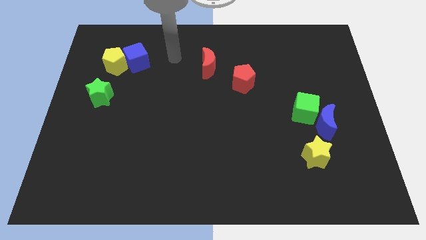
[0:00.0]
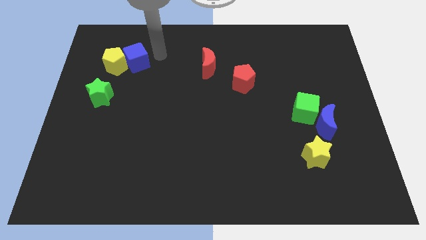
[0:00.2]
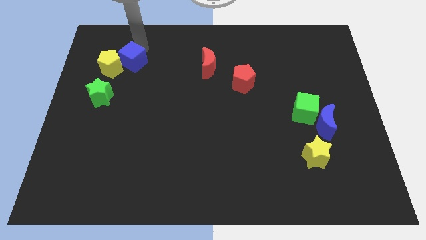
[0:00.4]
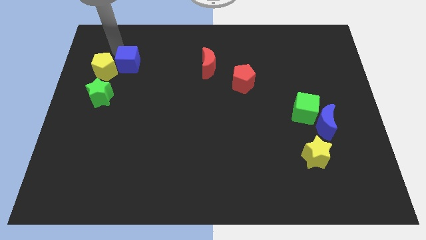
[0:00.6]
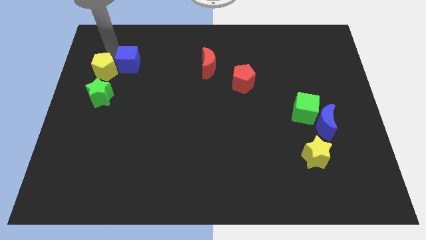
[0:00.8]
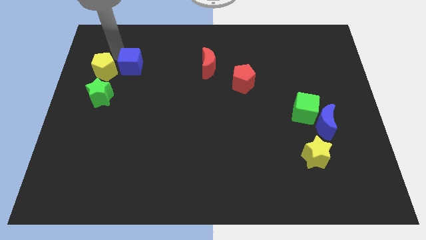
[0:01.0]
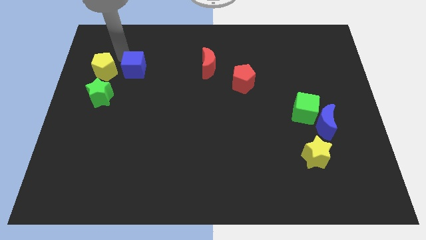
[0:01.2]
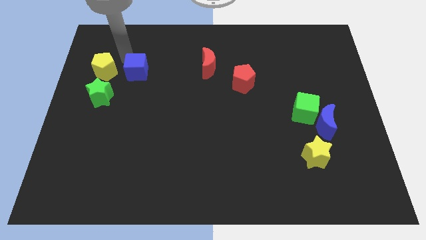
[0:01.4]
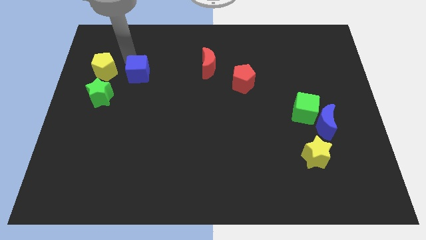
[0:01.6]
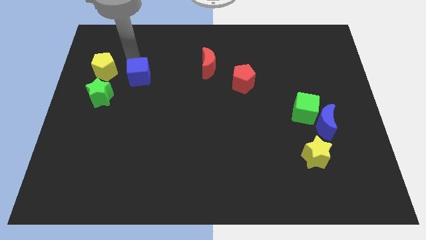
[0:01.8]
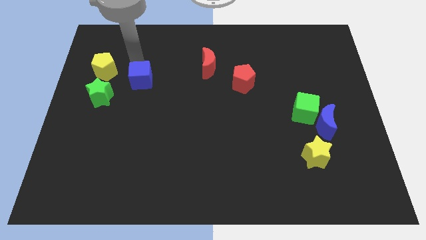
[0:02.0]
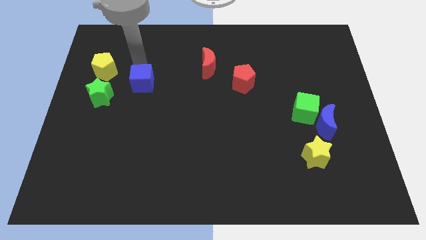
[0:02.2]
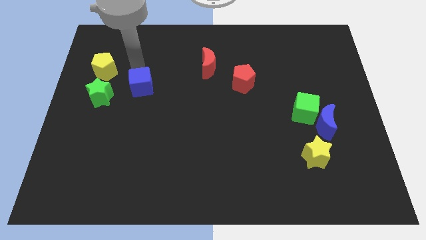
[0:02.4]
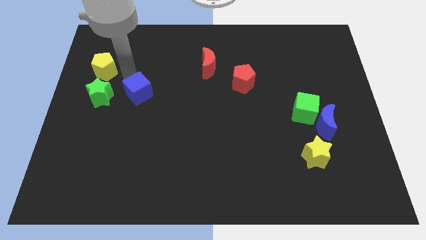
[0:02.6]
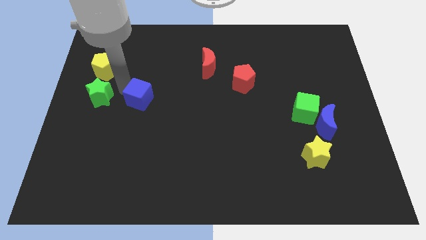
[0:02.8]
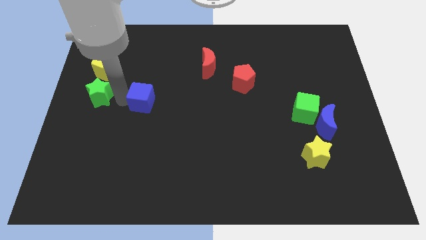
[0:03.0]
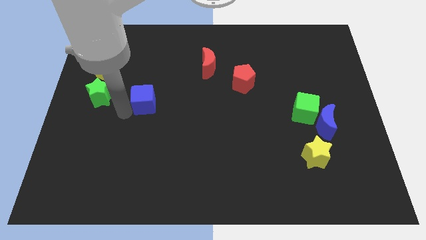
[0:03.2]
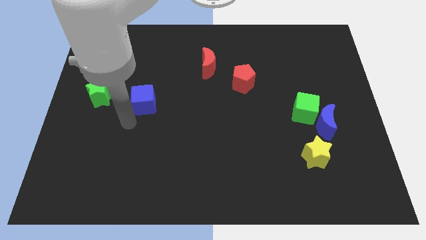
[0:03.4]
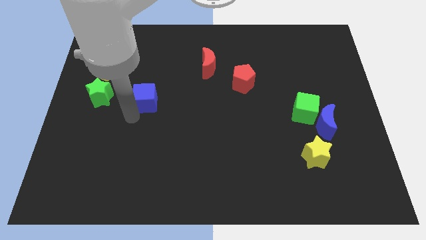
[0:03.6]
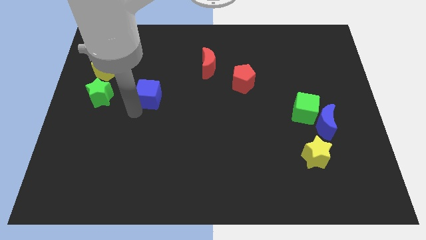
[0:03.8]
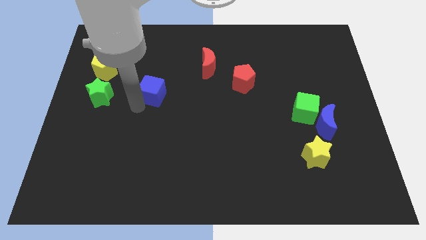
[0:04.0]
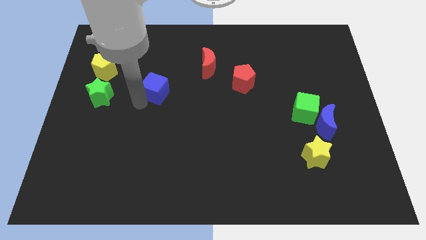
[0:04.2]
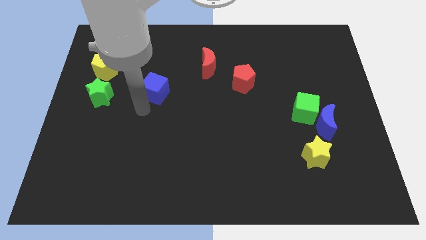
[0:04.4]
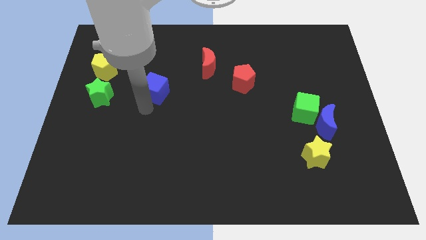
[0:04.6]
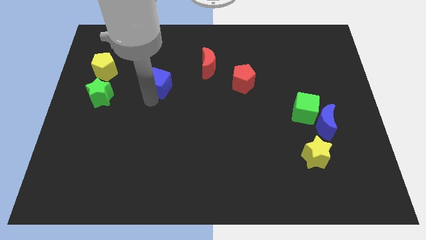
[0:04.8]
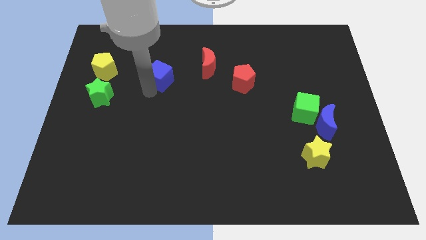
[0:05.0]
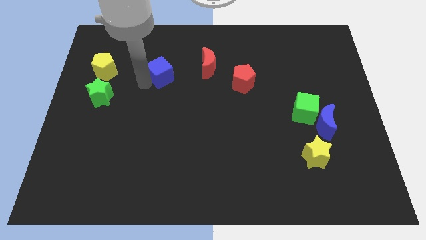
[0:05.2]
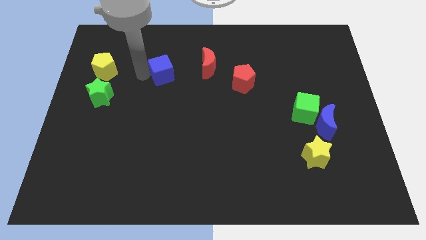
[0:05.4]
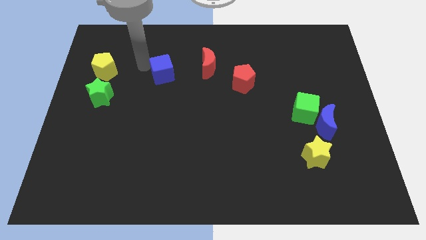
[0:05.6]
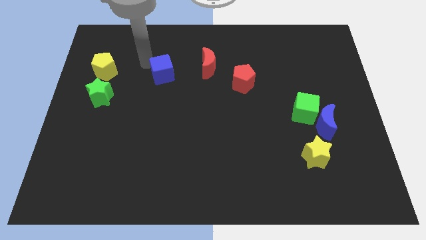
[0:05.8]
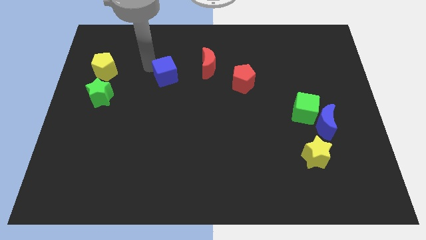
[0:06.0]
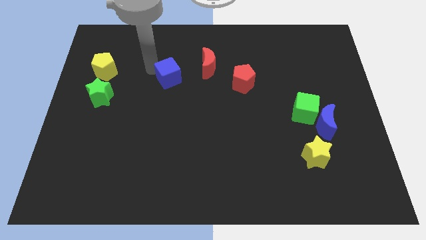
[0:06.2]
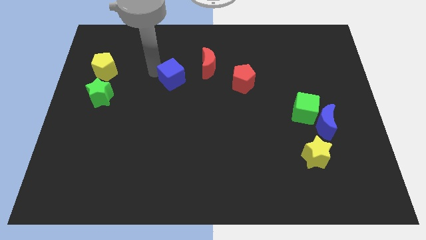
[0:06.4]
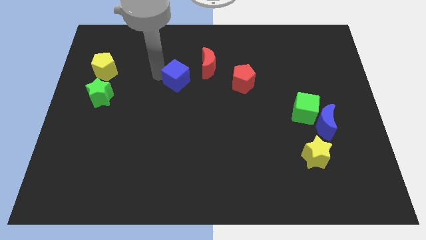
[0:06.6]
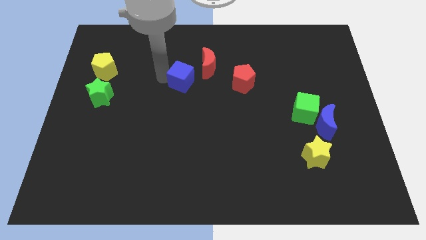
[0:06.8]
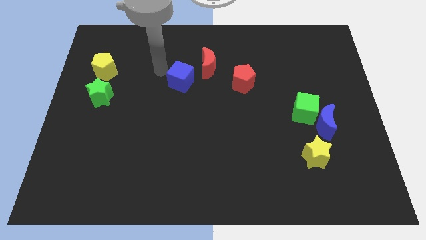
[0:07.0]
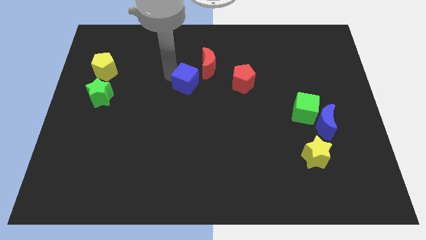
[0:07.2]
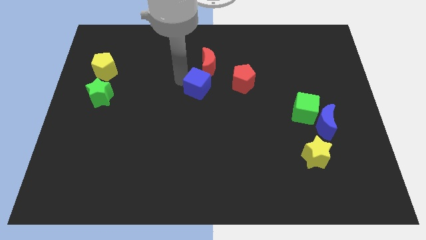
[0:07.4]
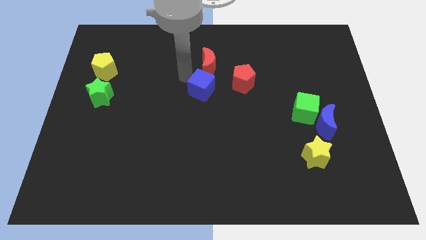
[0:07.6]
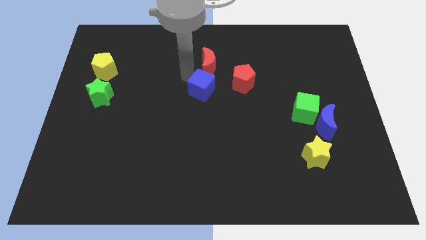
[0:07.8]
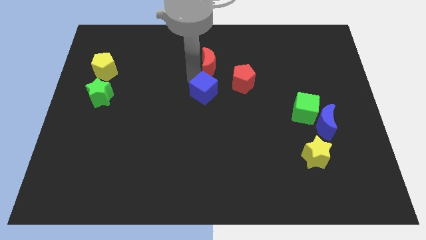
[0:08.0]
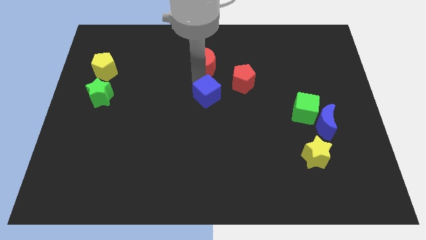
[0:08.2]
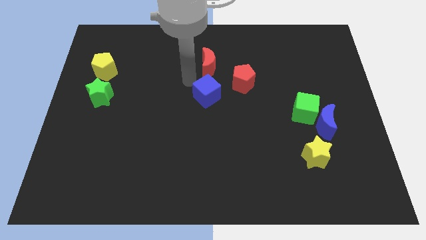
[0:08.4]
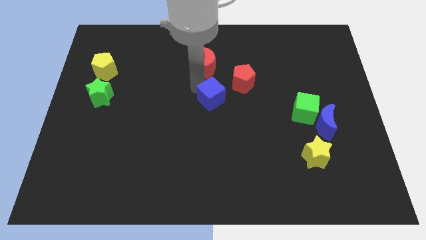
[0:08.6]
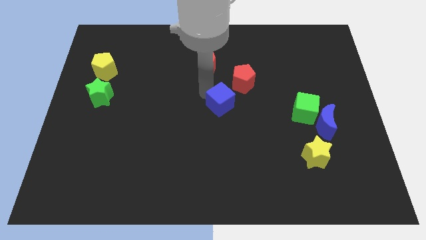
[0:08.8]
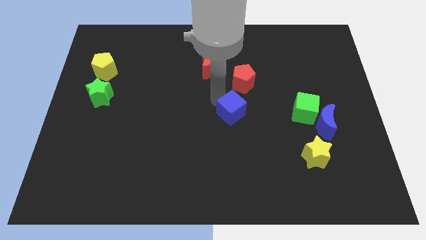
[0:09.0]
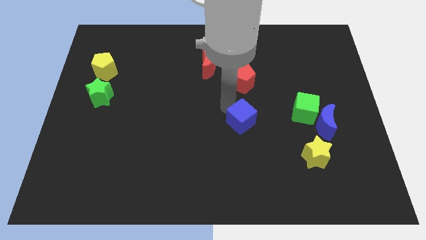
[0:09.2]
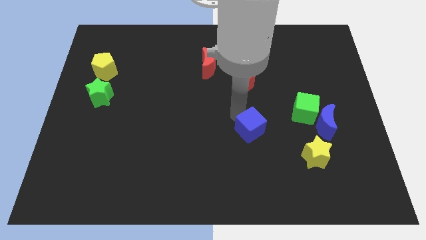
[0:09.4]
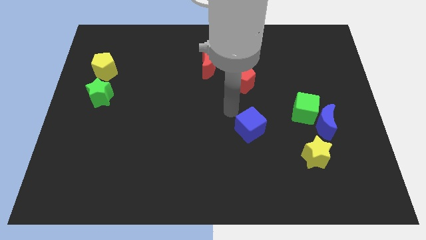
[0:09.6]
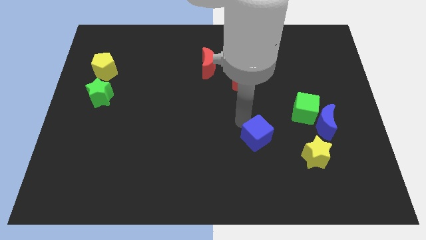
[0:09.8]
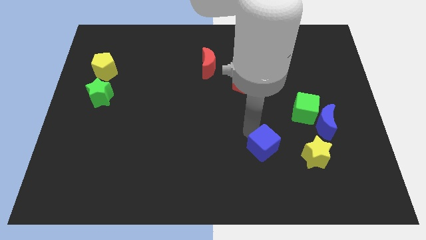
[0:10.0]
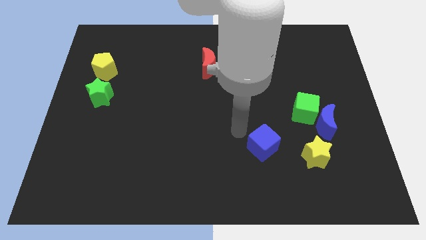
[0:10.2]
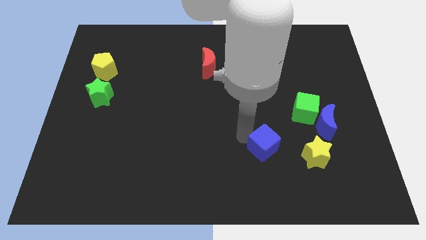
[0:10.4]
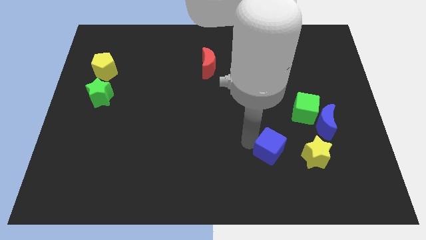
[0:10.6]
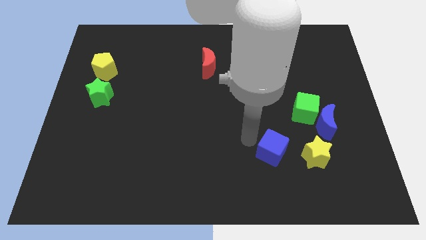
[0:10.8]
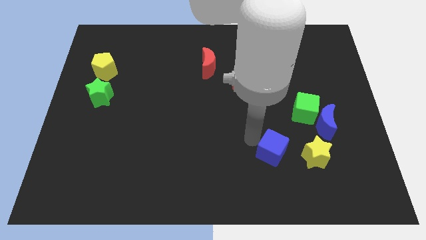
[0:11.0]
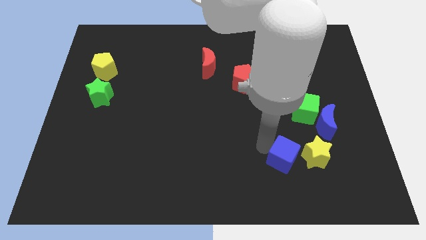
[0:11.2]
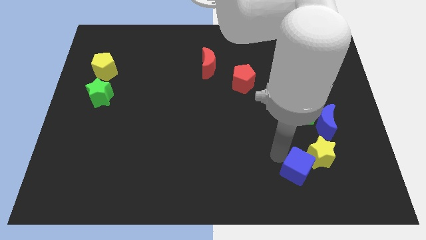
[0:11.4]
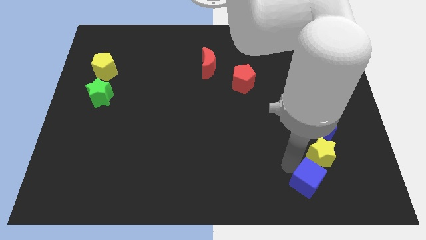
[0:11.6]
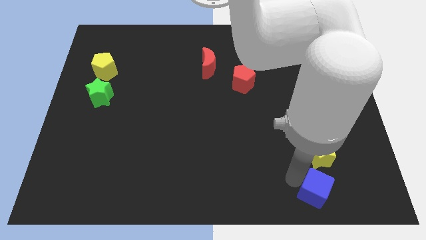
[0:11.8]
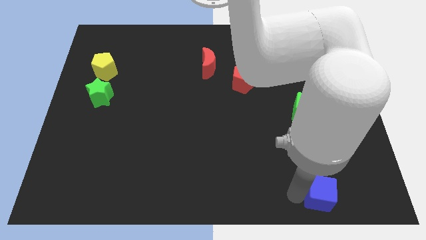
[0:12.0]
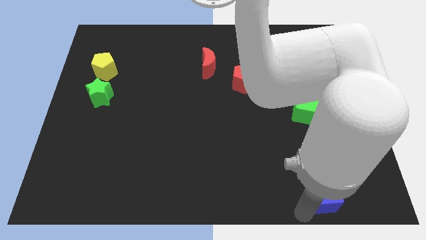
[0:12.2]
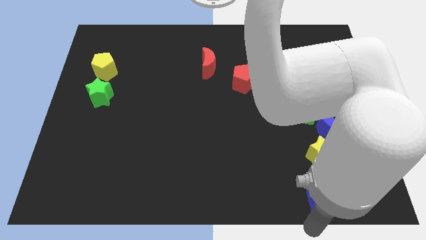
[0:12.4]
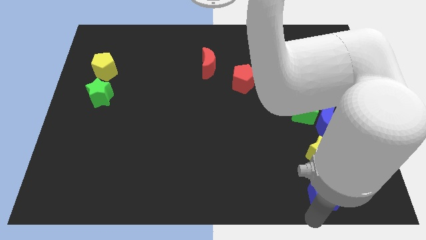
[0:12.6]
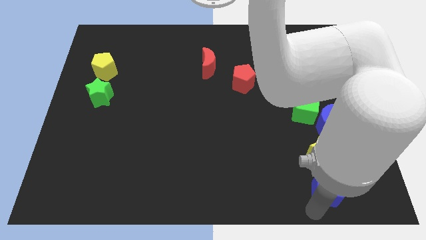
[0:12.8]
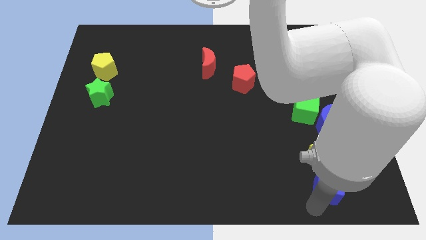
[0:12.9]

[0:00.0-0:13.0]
put the blue cube below the blue moon

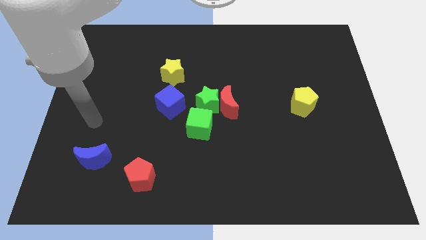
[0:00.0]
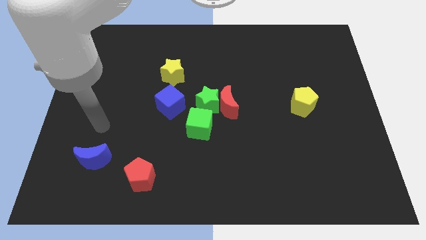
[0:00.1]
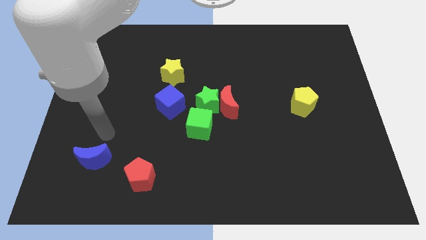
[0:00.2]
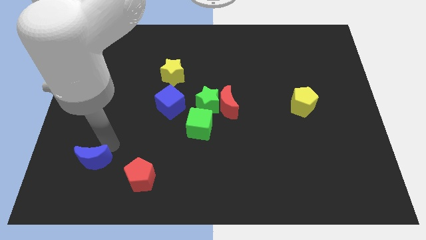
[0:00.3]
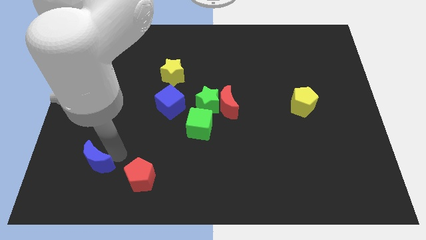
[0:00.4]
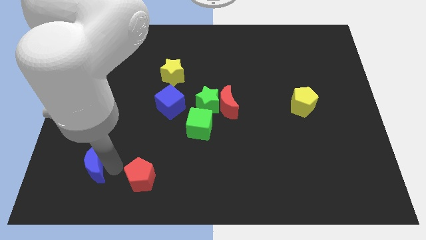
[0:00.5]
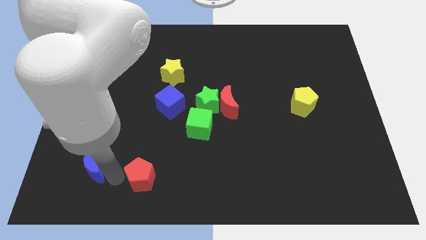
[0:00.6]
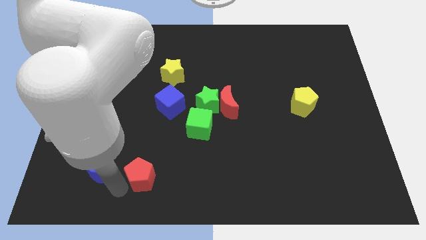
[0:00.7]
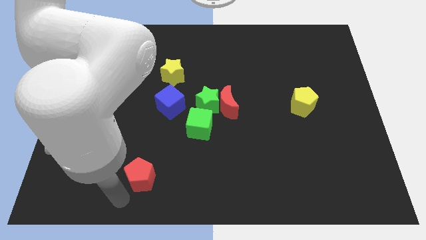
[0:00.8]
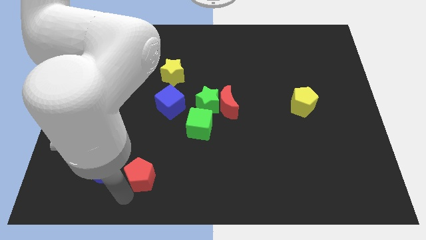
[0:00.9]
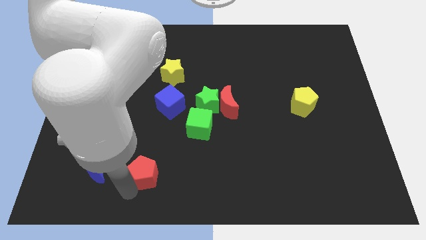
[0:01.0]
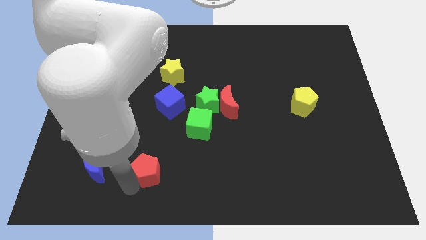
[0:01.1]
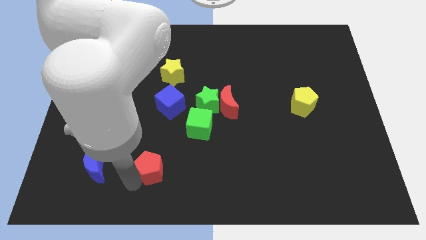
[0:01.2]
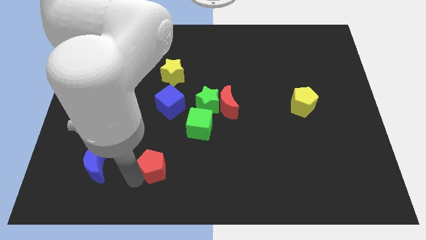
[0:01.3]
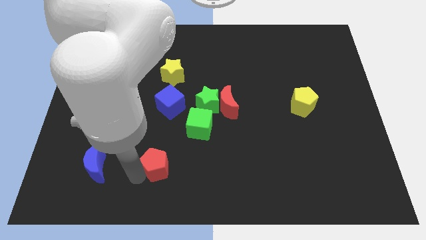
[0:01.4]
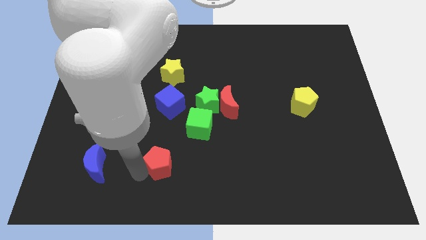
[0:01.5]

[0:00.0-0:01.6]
push the red pentagon to the bottom left of the green cube
